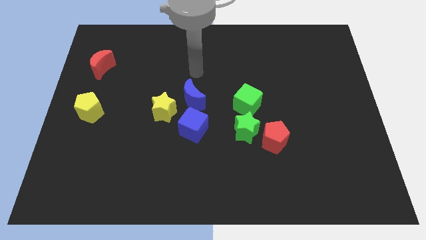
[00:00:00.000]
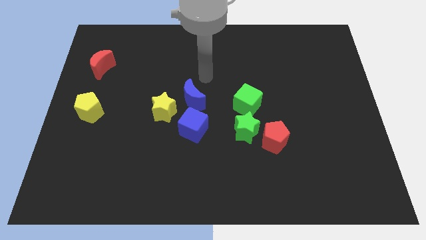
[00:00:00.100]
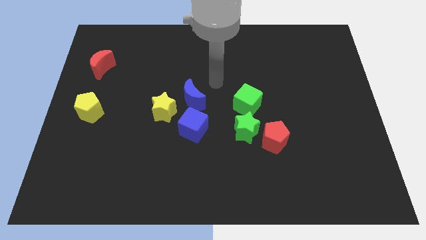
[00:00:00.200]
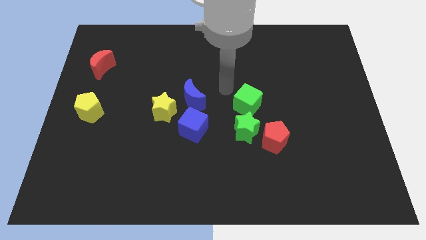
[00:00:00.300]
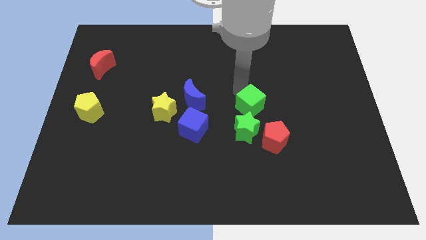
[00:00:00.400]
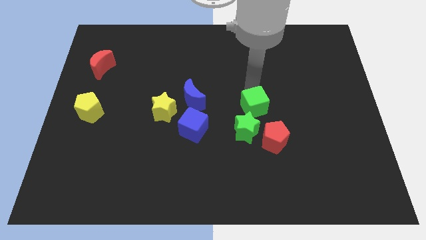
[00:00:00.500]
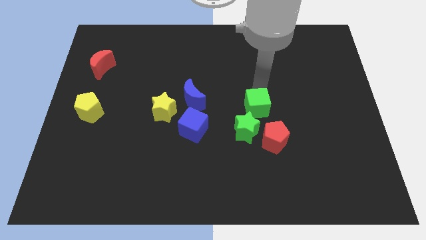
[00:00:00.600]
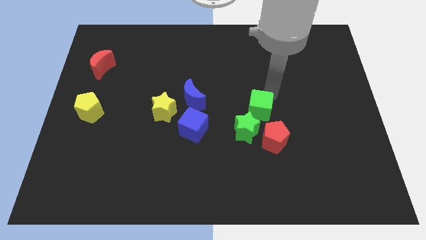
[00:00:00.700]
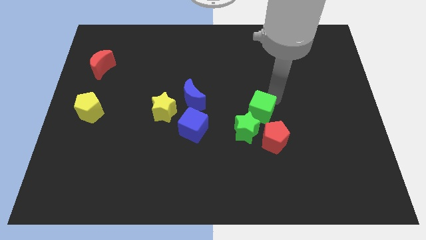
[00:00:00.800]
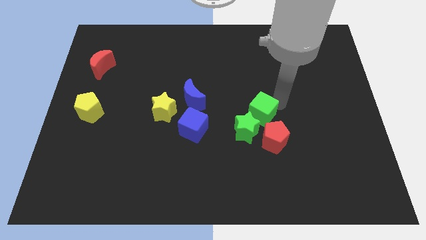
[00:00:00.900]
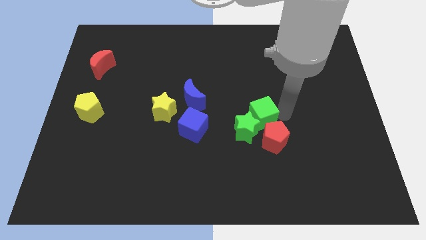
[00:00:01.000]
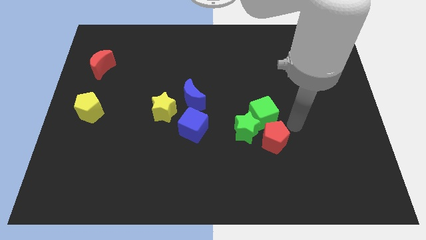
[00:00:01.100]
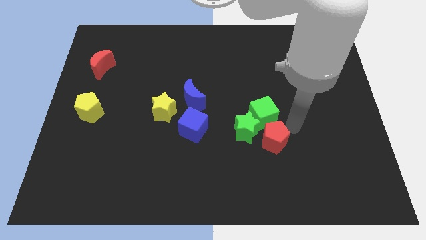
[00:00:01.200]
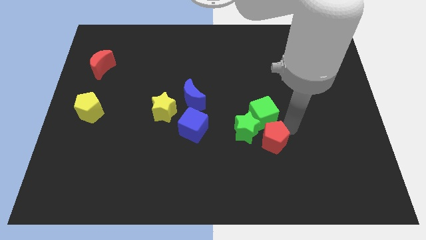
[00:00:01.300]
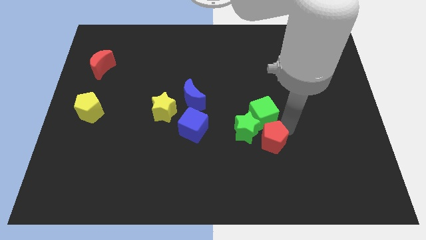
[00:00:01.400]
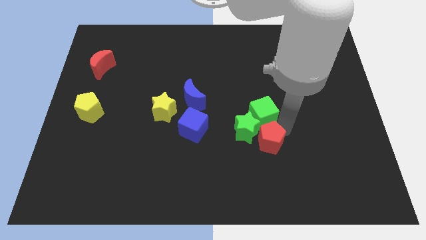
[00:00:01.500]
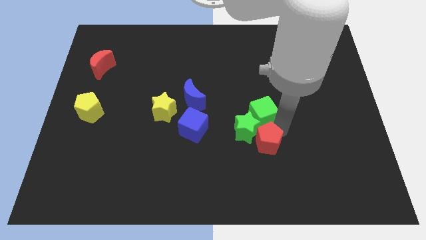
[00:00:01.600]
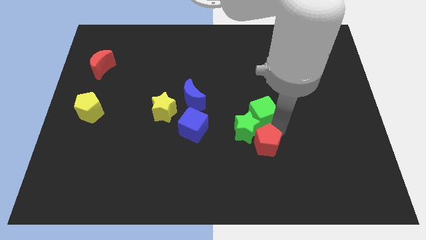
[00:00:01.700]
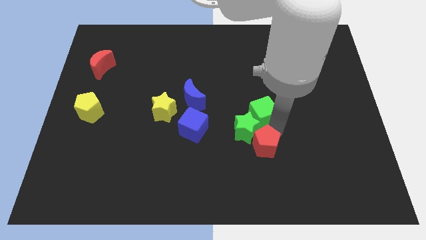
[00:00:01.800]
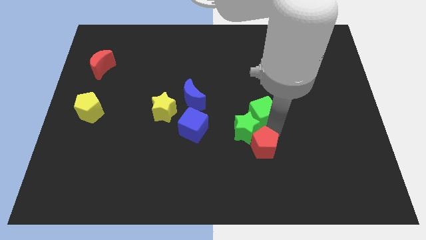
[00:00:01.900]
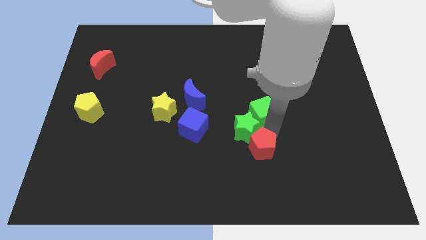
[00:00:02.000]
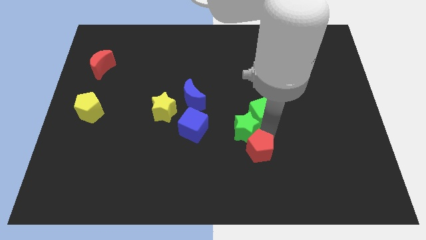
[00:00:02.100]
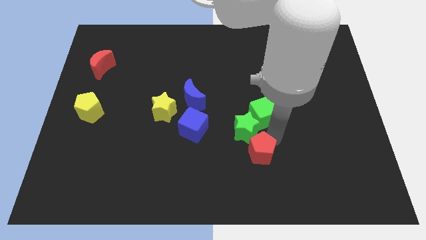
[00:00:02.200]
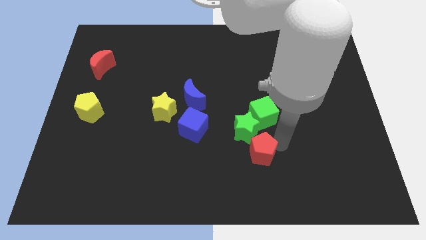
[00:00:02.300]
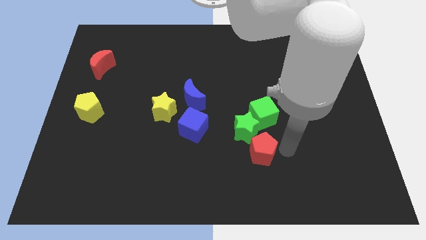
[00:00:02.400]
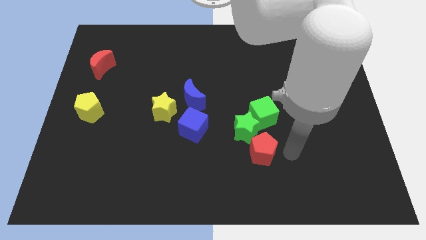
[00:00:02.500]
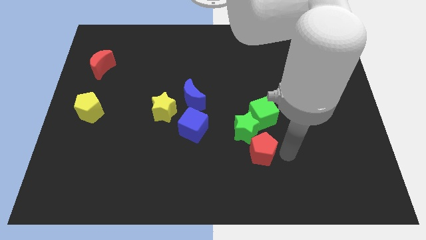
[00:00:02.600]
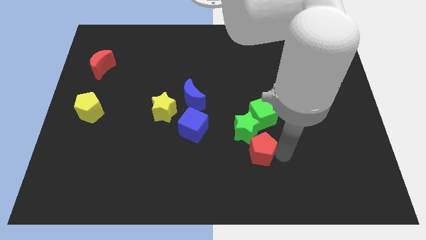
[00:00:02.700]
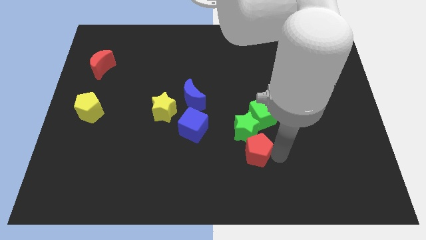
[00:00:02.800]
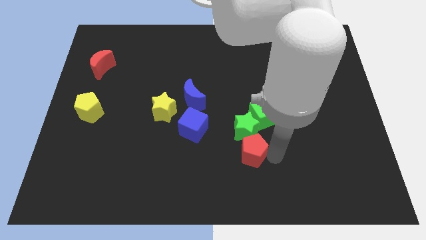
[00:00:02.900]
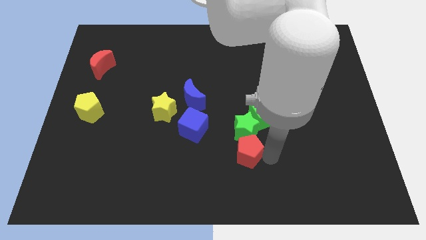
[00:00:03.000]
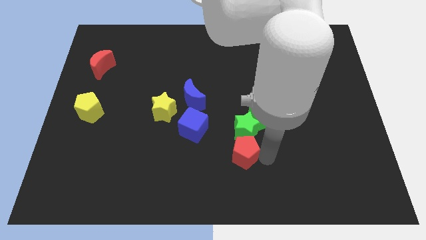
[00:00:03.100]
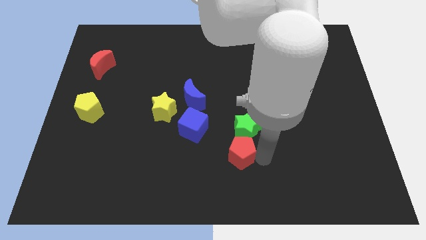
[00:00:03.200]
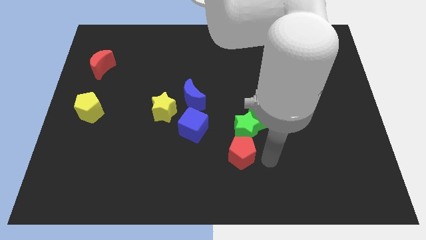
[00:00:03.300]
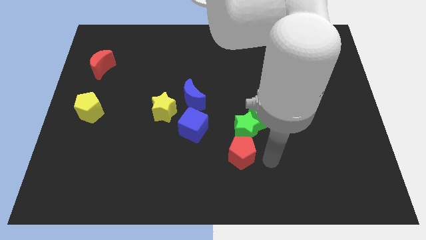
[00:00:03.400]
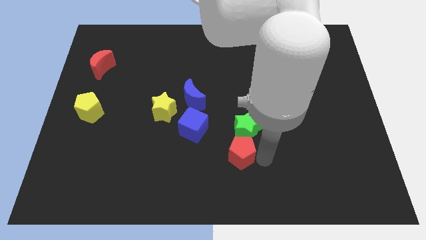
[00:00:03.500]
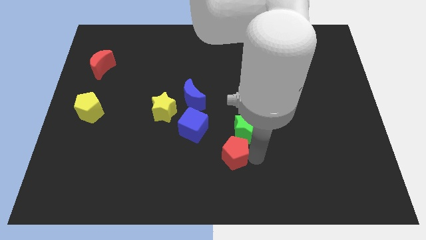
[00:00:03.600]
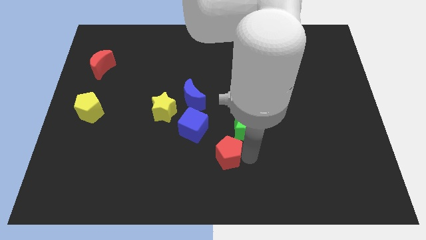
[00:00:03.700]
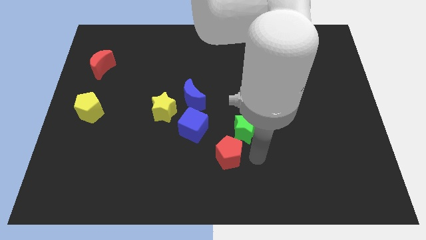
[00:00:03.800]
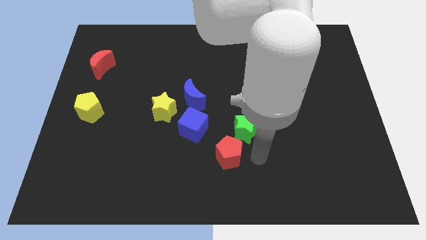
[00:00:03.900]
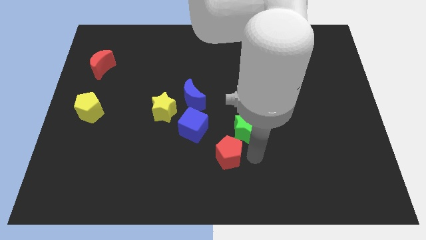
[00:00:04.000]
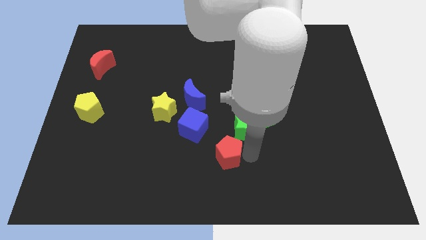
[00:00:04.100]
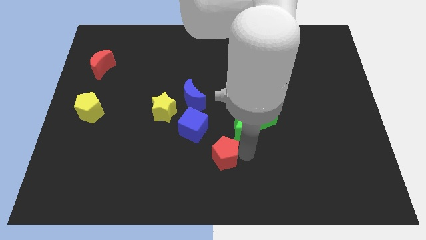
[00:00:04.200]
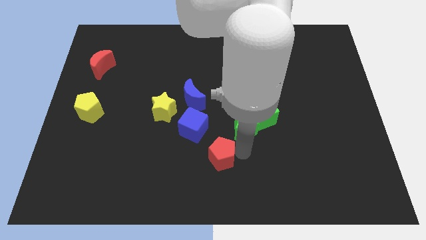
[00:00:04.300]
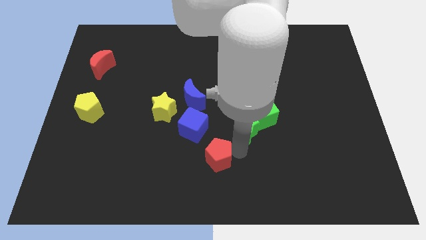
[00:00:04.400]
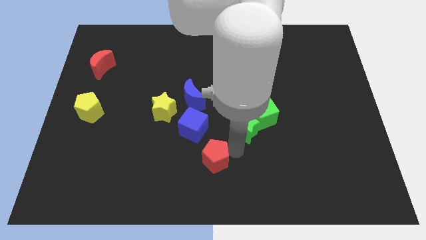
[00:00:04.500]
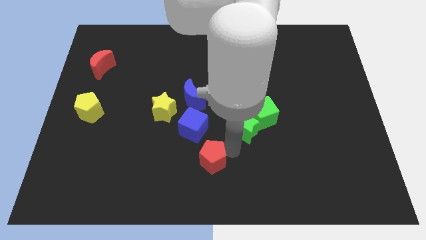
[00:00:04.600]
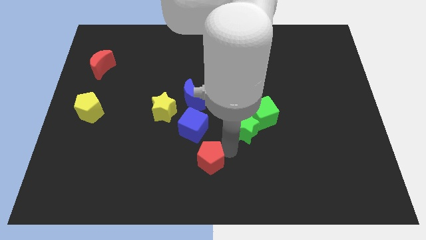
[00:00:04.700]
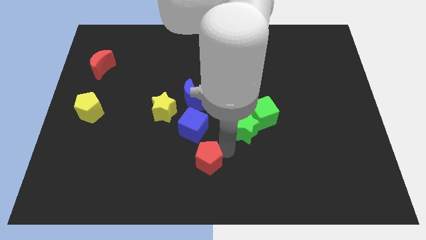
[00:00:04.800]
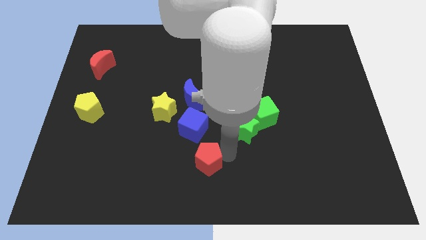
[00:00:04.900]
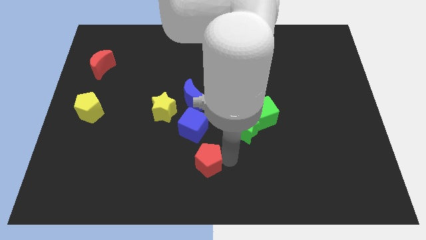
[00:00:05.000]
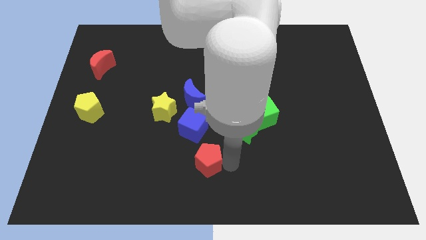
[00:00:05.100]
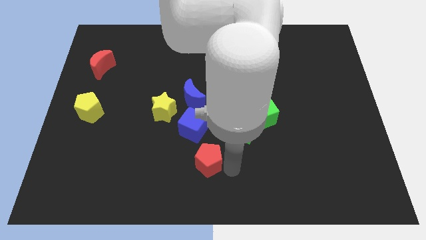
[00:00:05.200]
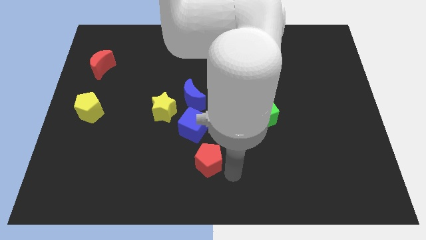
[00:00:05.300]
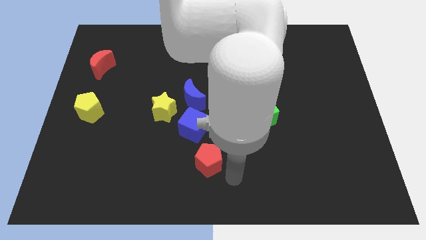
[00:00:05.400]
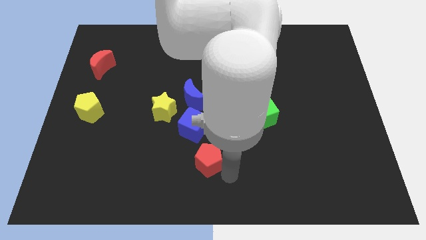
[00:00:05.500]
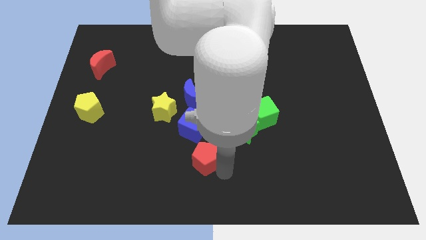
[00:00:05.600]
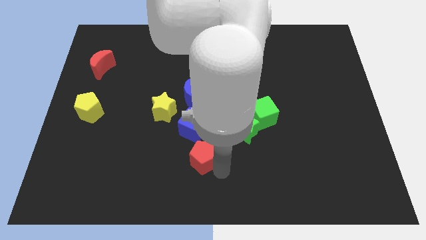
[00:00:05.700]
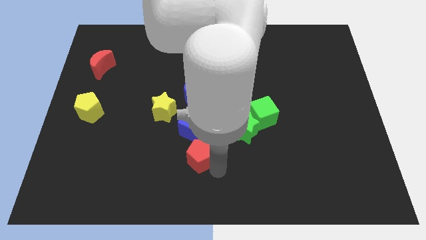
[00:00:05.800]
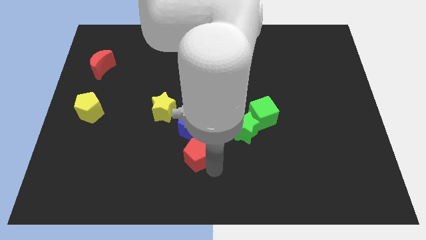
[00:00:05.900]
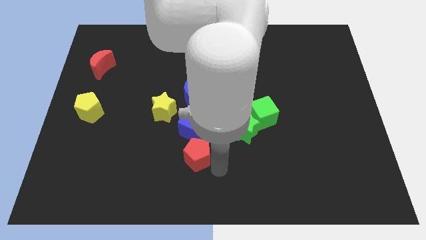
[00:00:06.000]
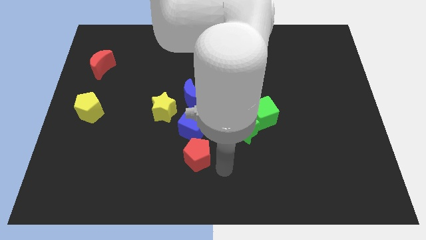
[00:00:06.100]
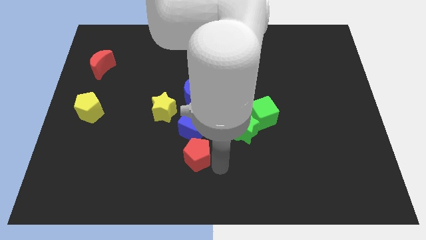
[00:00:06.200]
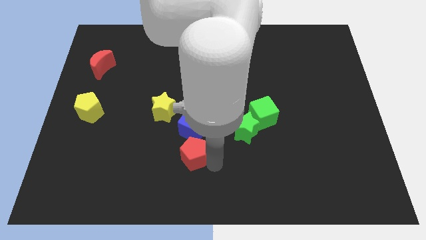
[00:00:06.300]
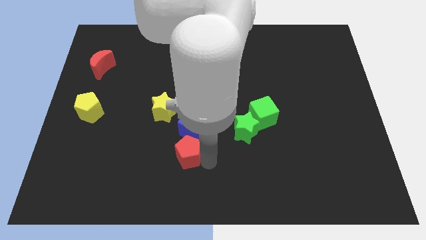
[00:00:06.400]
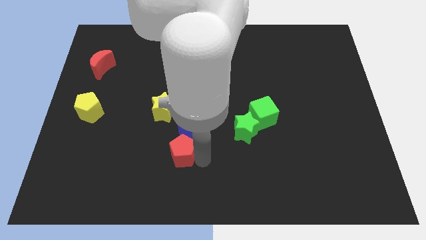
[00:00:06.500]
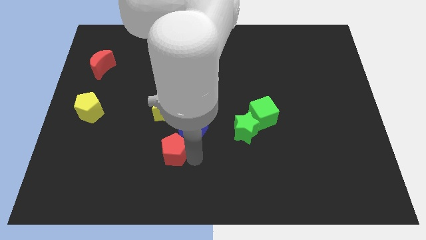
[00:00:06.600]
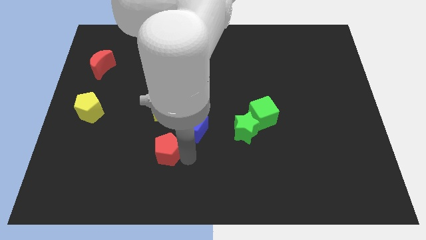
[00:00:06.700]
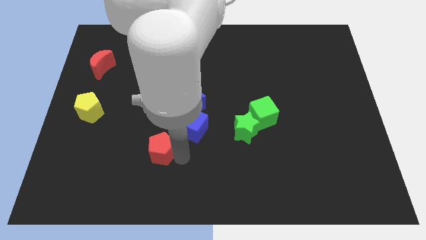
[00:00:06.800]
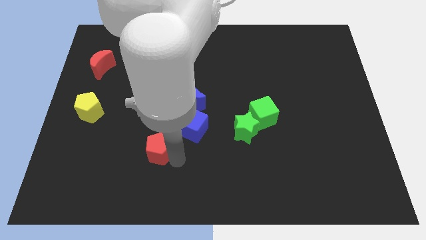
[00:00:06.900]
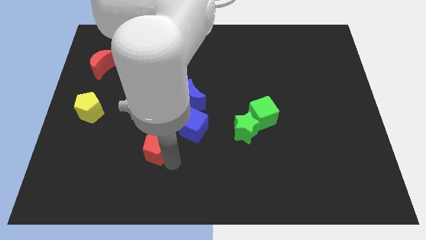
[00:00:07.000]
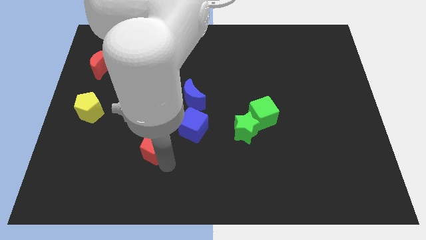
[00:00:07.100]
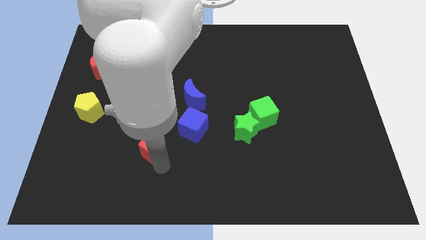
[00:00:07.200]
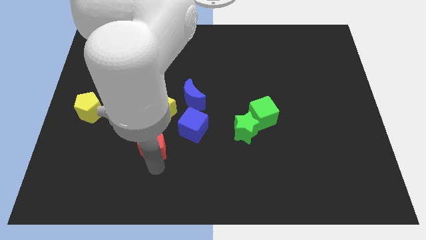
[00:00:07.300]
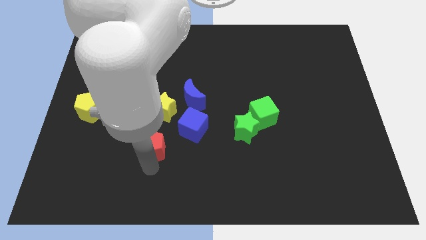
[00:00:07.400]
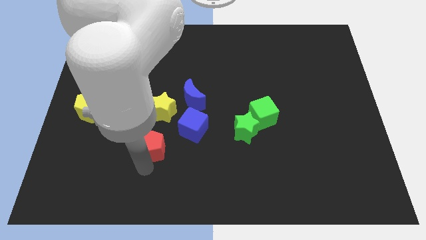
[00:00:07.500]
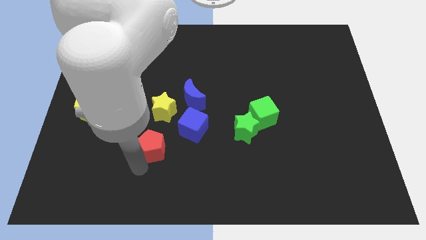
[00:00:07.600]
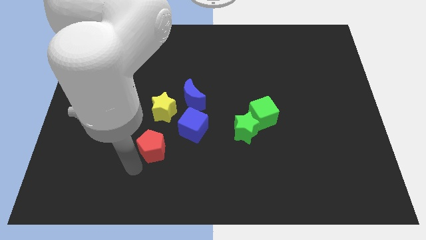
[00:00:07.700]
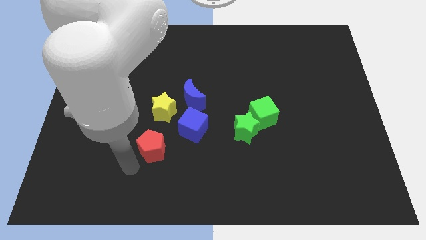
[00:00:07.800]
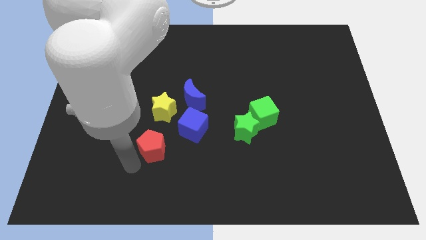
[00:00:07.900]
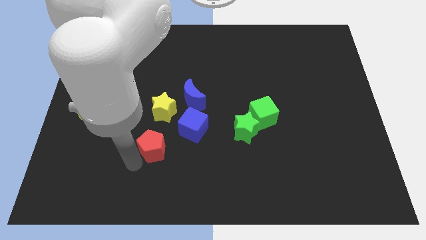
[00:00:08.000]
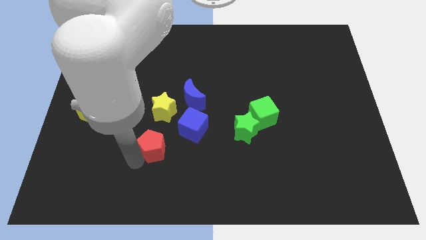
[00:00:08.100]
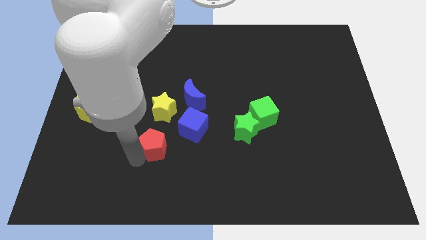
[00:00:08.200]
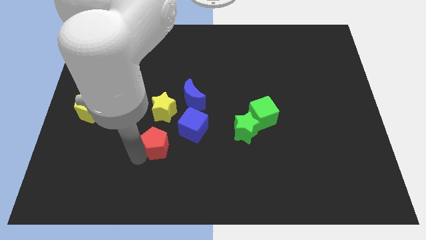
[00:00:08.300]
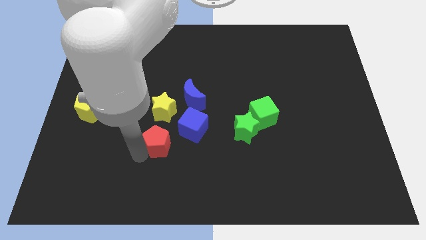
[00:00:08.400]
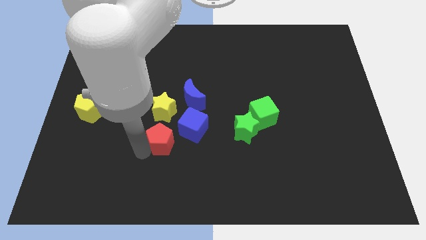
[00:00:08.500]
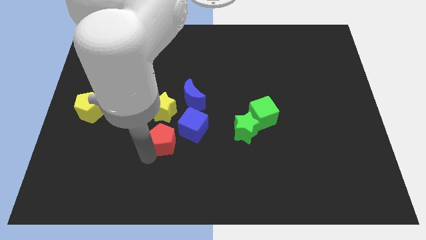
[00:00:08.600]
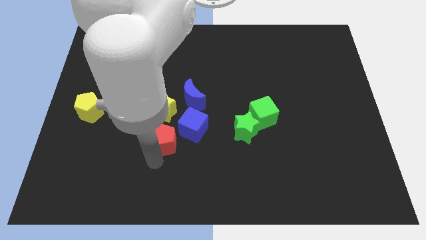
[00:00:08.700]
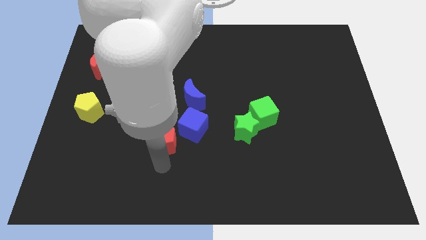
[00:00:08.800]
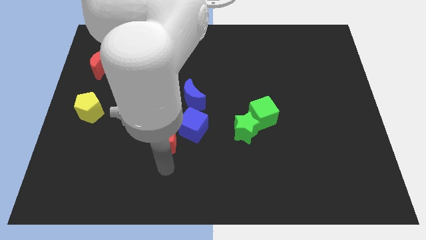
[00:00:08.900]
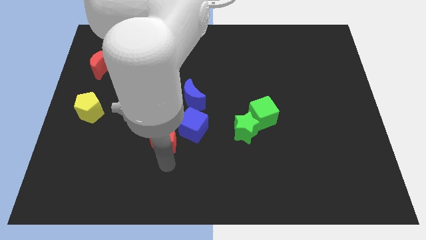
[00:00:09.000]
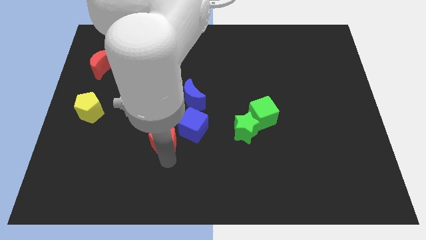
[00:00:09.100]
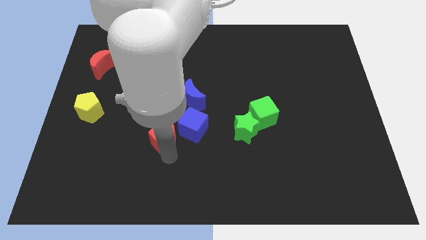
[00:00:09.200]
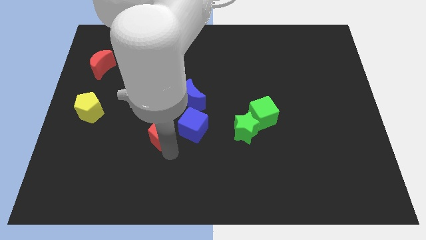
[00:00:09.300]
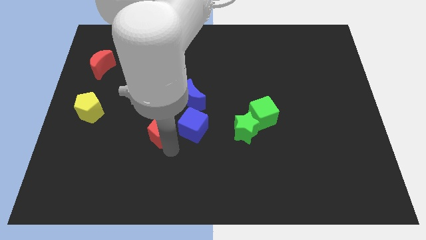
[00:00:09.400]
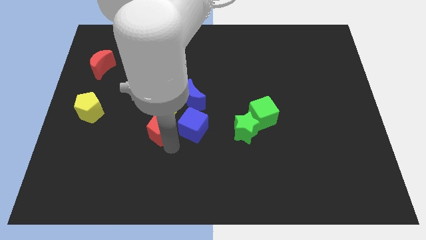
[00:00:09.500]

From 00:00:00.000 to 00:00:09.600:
push the red pentagon next to the yellow star
